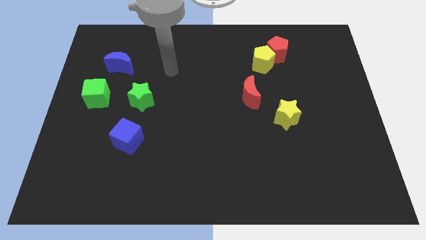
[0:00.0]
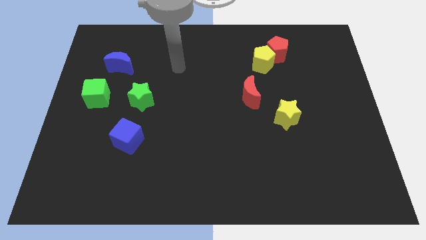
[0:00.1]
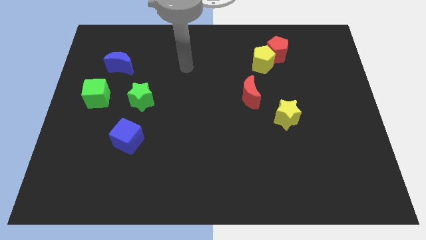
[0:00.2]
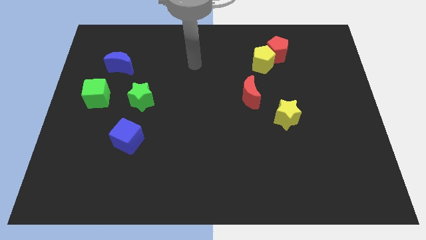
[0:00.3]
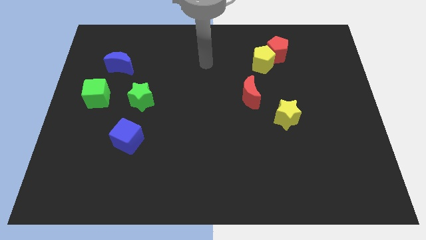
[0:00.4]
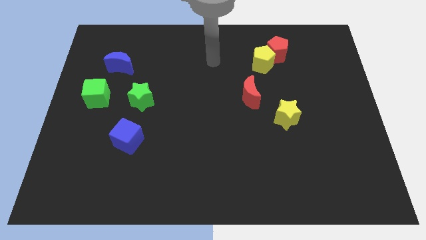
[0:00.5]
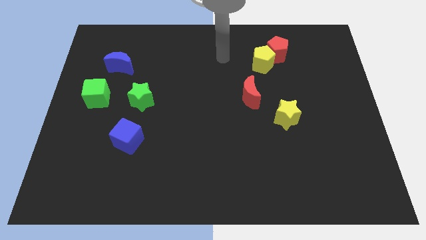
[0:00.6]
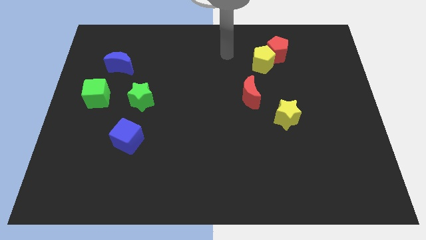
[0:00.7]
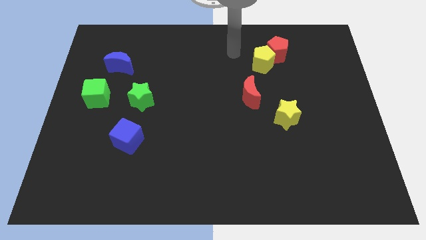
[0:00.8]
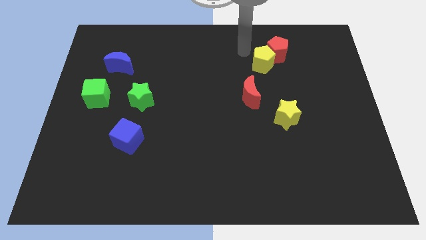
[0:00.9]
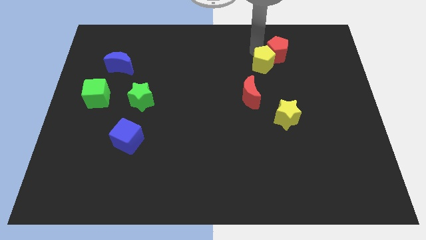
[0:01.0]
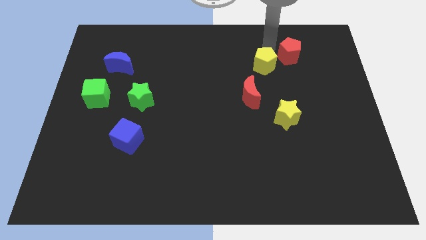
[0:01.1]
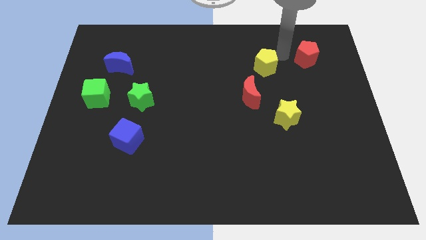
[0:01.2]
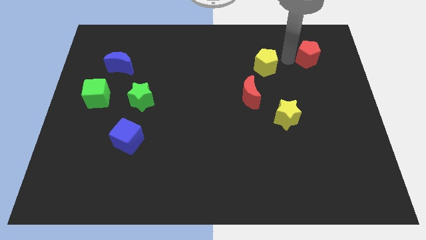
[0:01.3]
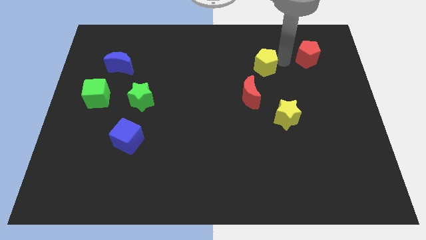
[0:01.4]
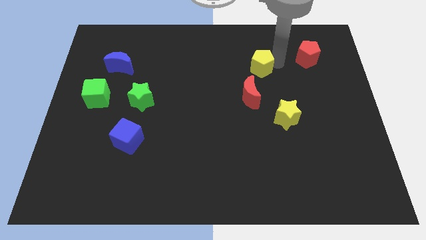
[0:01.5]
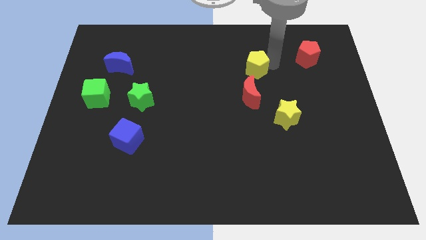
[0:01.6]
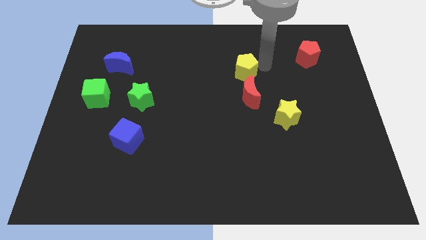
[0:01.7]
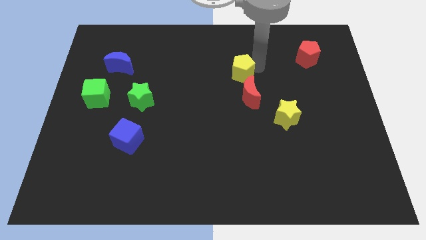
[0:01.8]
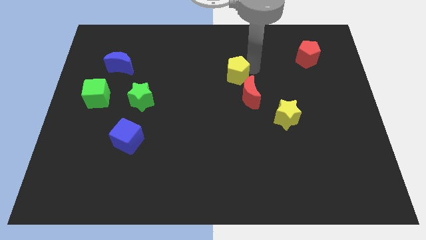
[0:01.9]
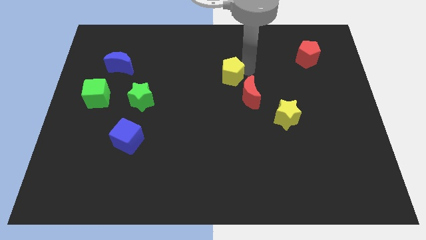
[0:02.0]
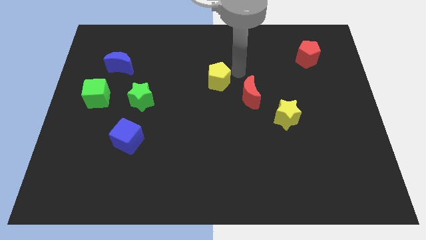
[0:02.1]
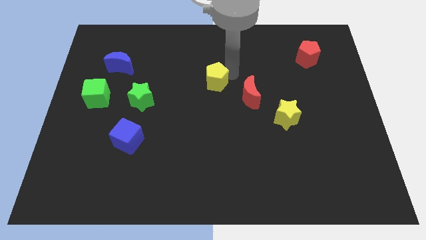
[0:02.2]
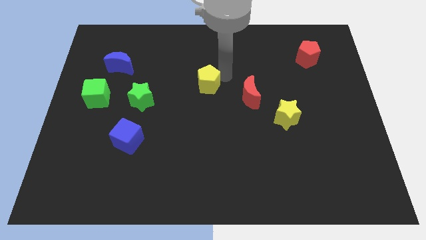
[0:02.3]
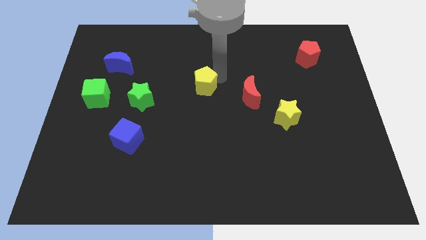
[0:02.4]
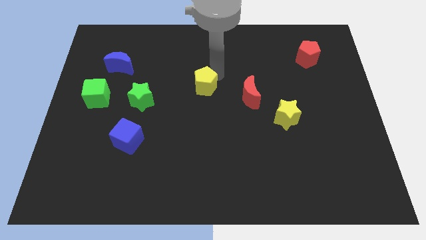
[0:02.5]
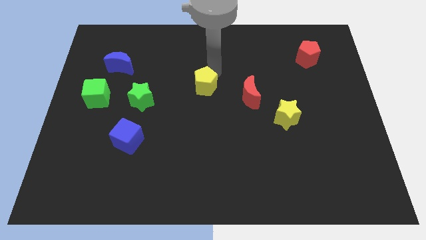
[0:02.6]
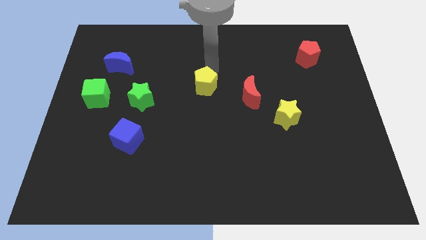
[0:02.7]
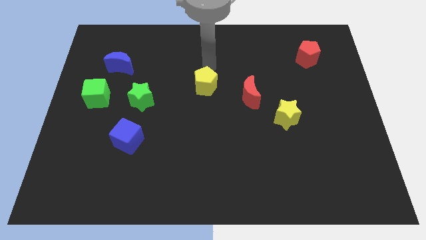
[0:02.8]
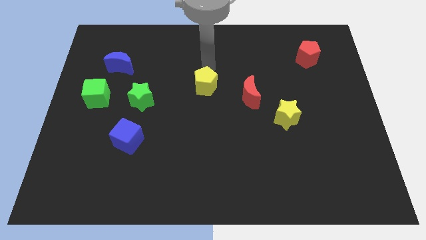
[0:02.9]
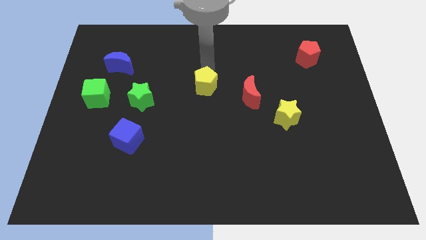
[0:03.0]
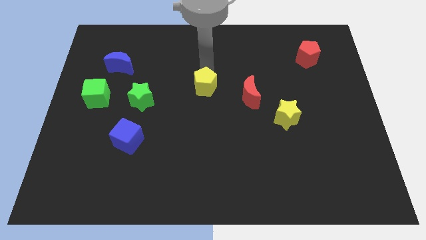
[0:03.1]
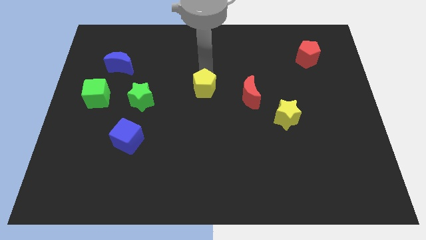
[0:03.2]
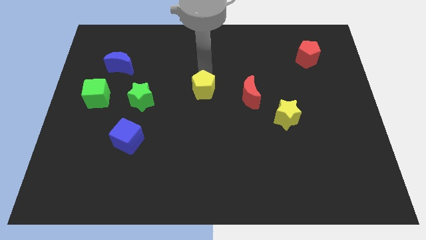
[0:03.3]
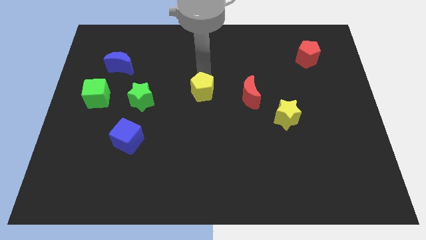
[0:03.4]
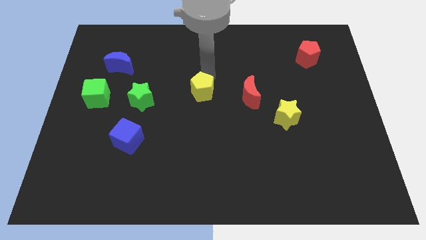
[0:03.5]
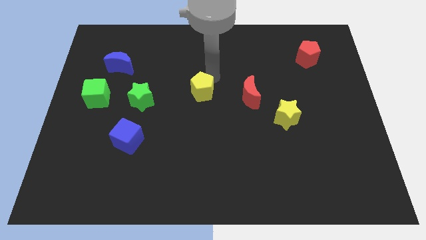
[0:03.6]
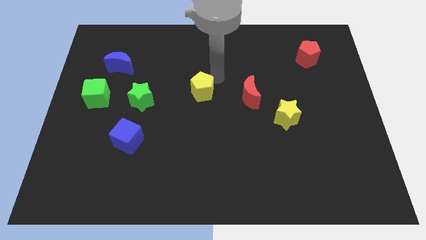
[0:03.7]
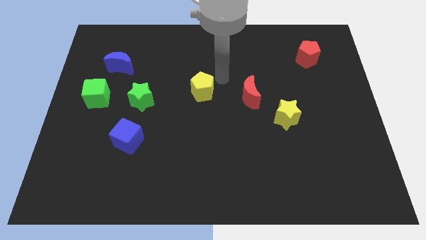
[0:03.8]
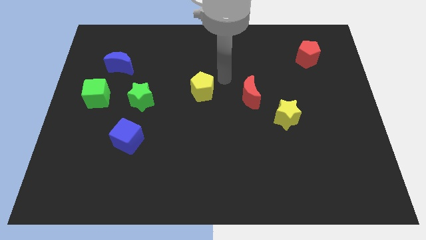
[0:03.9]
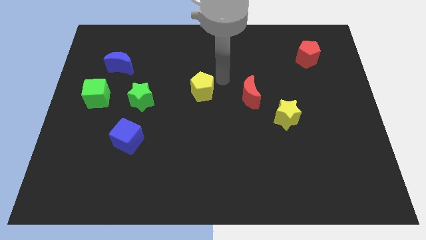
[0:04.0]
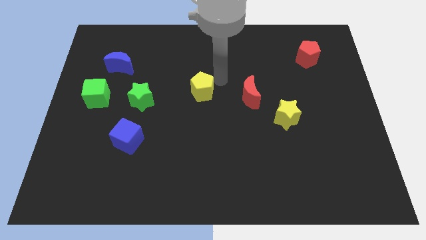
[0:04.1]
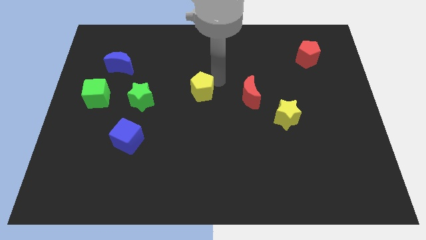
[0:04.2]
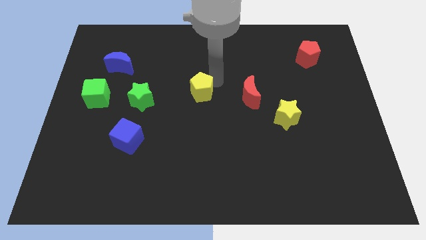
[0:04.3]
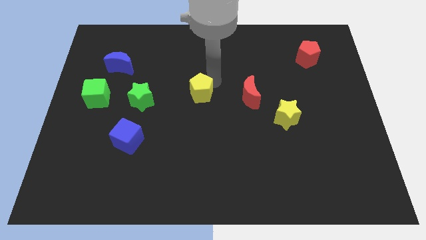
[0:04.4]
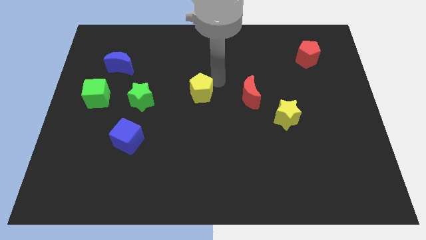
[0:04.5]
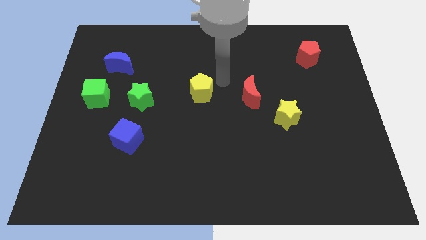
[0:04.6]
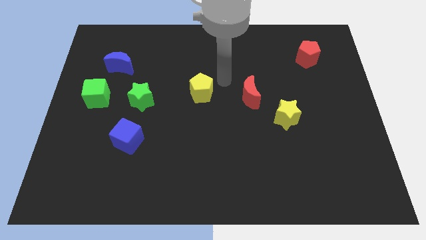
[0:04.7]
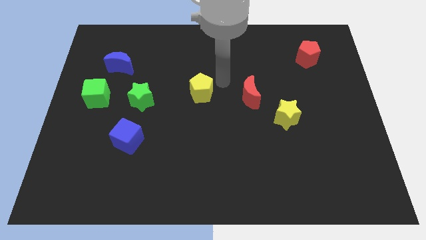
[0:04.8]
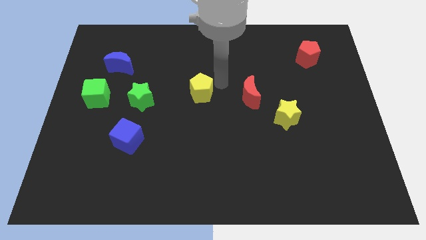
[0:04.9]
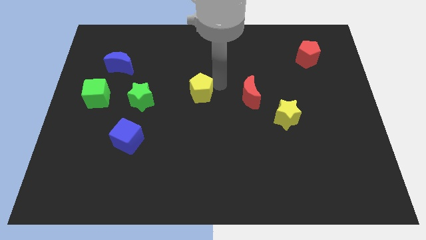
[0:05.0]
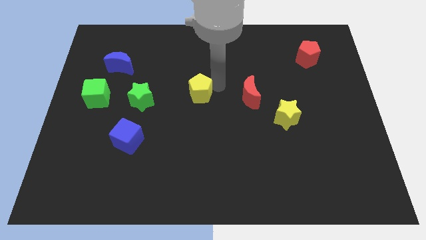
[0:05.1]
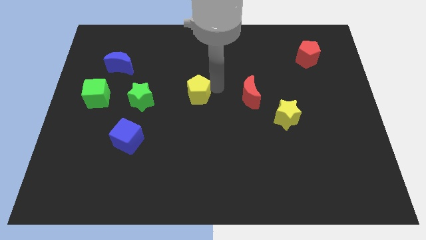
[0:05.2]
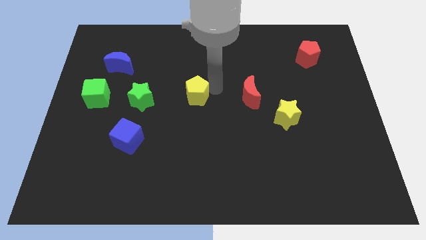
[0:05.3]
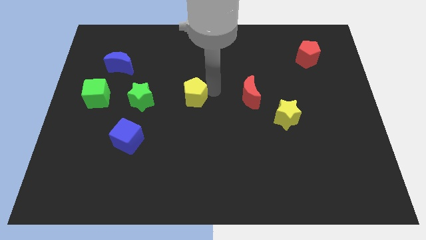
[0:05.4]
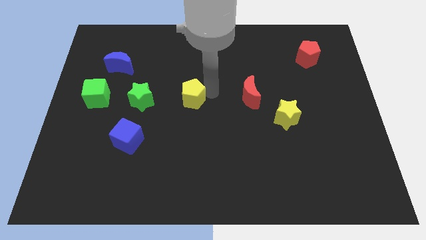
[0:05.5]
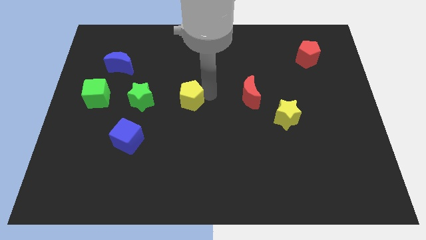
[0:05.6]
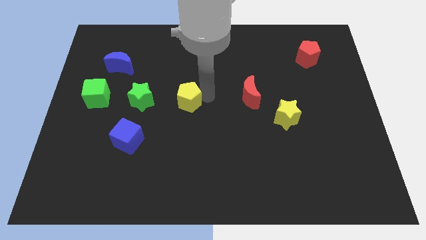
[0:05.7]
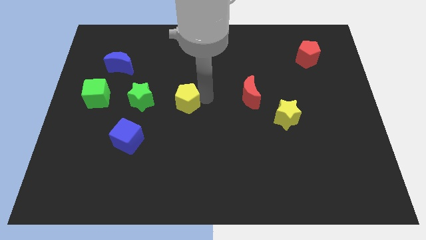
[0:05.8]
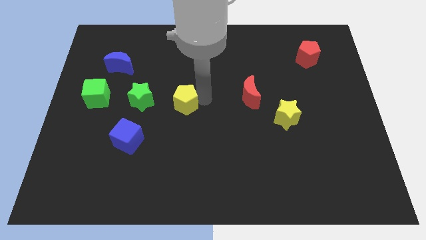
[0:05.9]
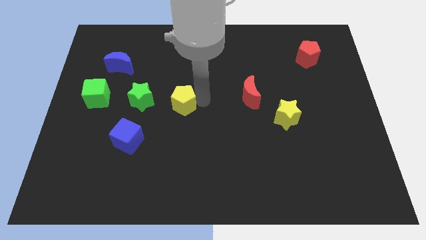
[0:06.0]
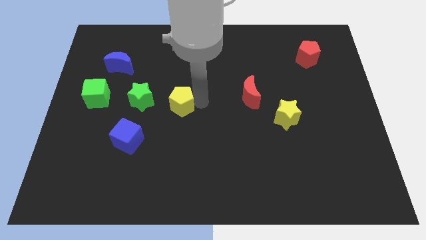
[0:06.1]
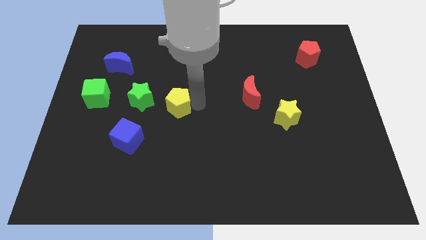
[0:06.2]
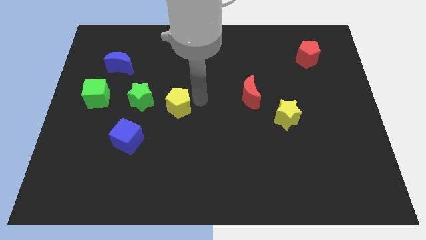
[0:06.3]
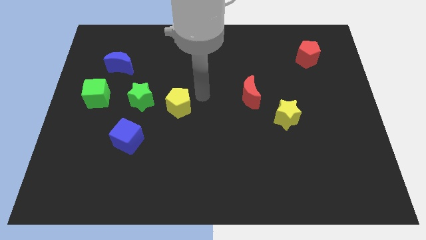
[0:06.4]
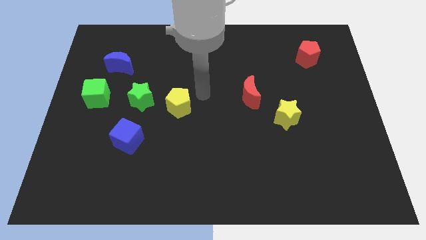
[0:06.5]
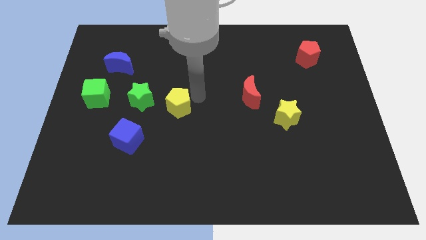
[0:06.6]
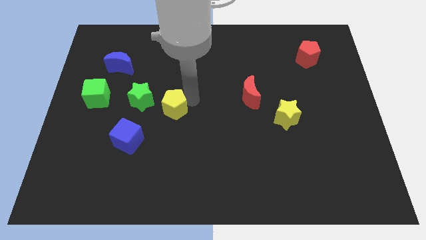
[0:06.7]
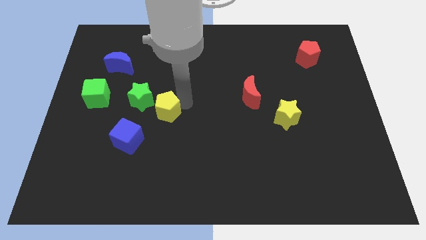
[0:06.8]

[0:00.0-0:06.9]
put the yellow pentagon to the top right side of the blue cube
